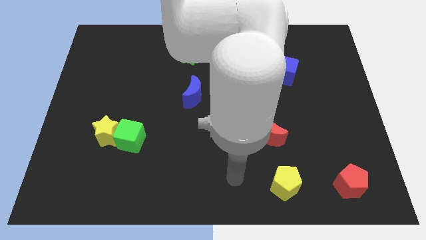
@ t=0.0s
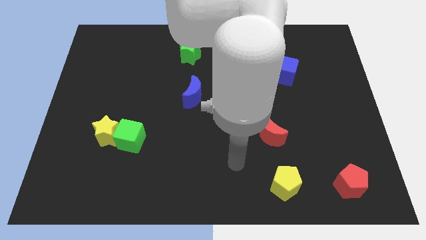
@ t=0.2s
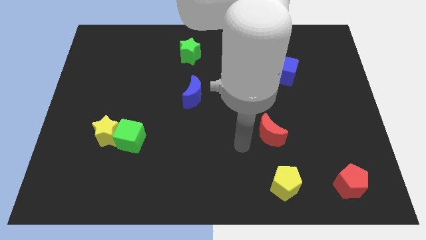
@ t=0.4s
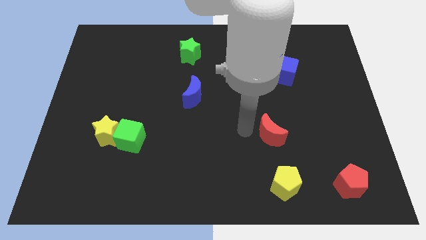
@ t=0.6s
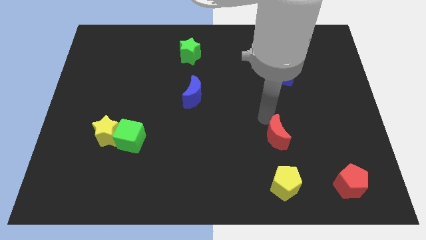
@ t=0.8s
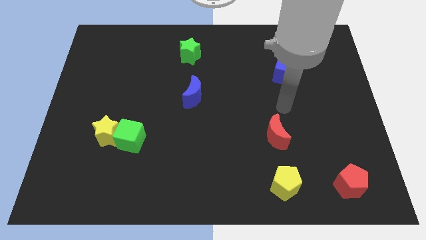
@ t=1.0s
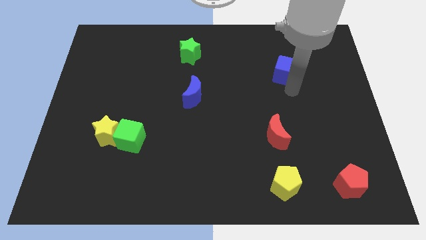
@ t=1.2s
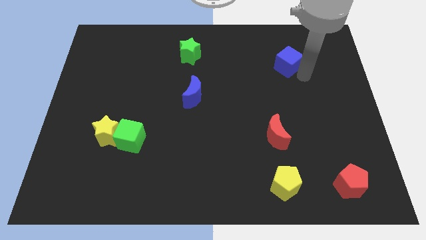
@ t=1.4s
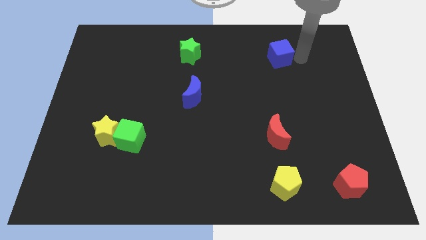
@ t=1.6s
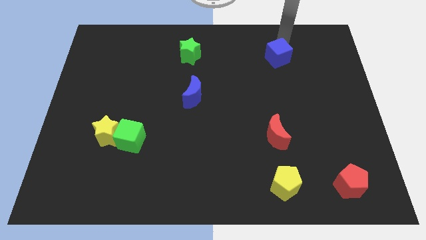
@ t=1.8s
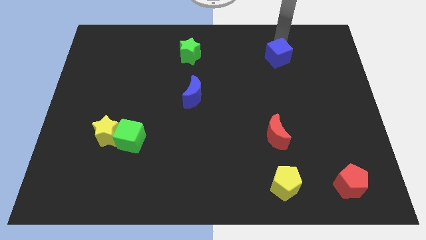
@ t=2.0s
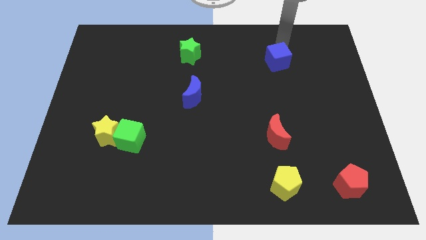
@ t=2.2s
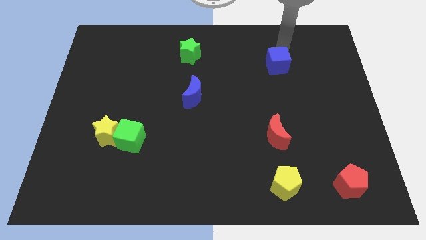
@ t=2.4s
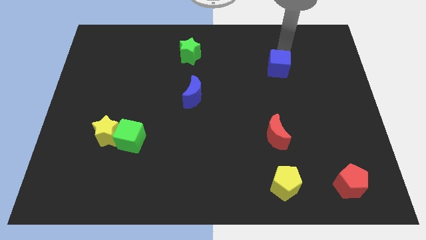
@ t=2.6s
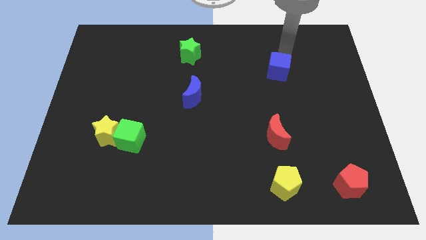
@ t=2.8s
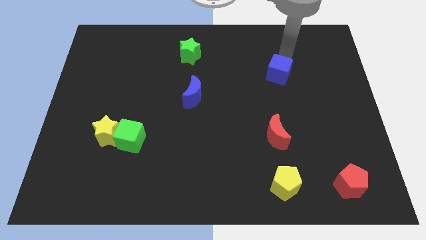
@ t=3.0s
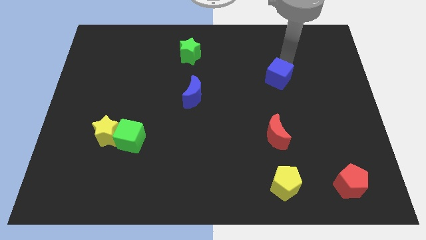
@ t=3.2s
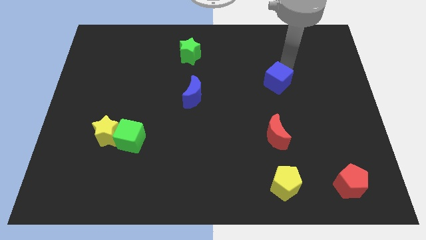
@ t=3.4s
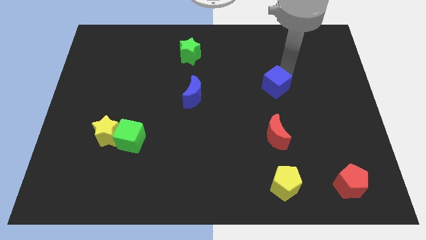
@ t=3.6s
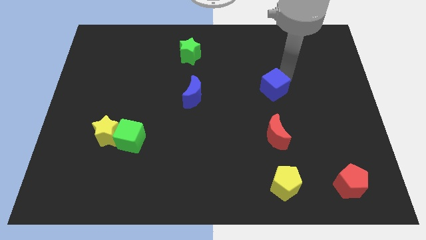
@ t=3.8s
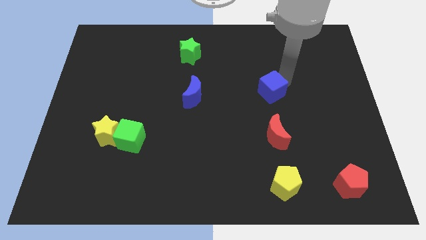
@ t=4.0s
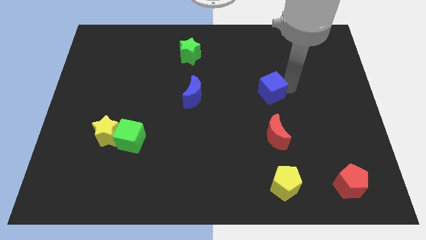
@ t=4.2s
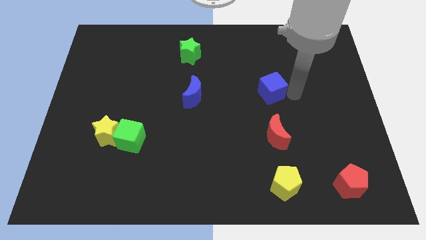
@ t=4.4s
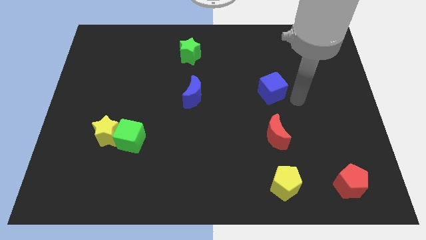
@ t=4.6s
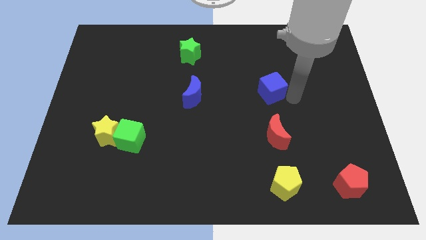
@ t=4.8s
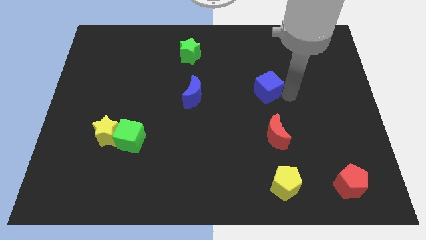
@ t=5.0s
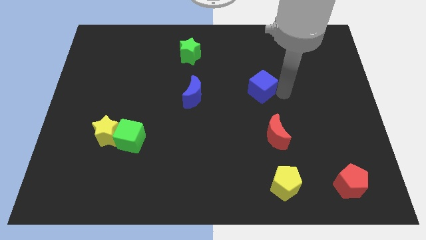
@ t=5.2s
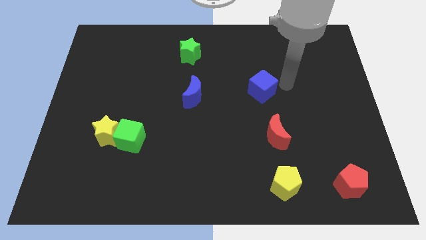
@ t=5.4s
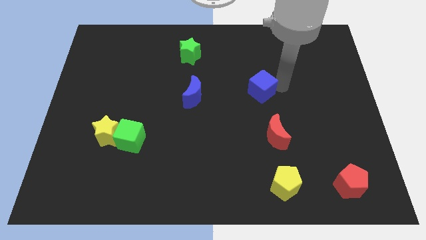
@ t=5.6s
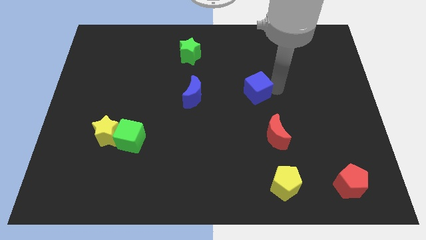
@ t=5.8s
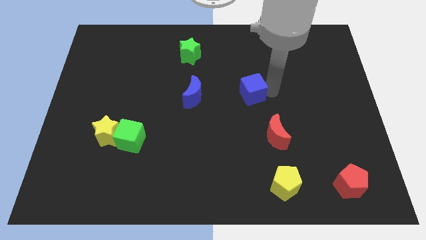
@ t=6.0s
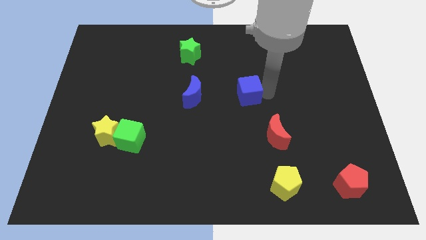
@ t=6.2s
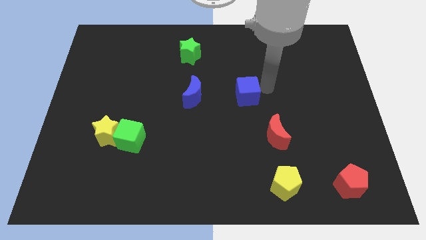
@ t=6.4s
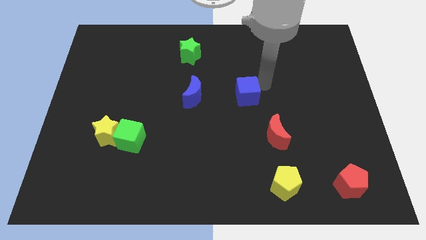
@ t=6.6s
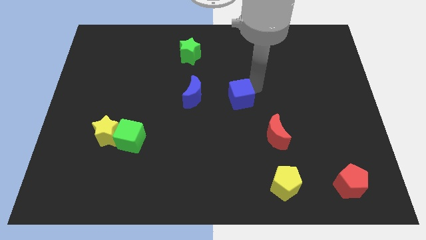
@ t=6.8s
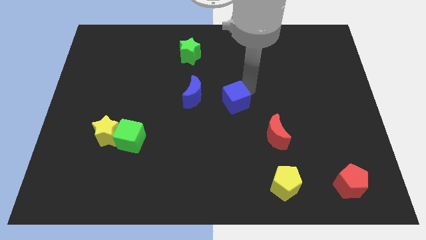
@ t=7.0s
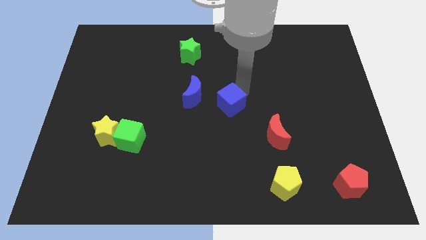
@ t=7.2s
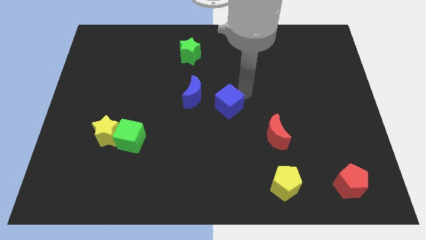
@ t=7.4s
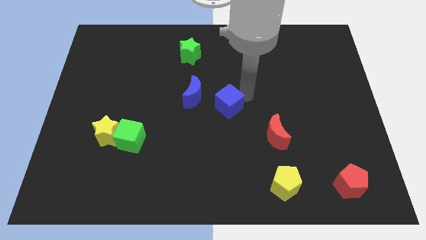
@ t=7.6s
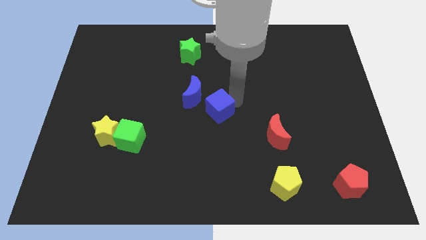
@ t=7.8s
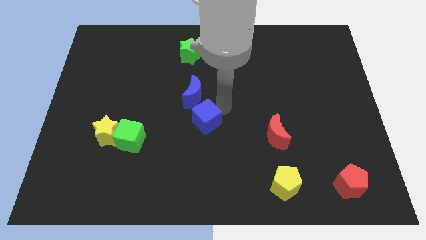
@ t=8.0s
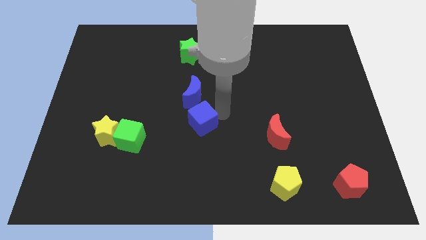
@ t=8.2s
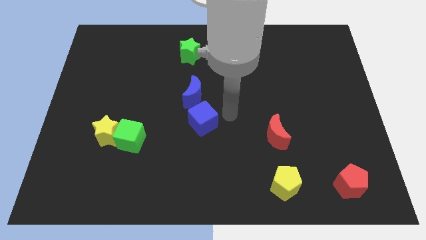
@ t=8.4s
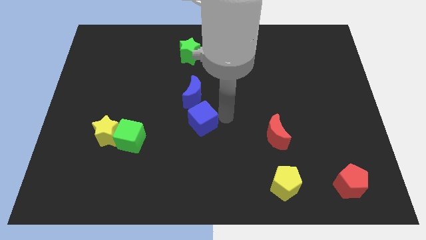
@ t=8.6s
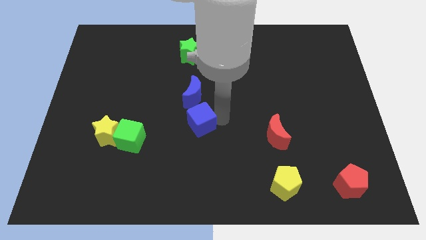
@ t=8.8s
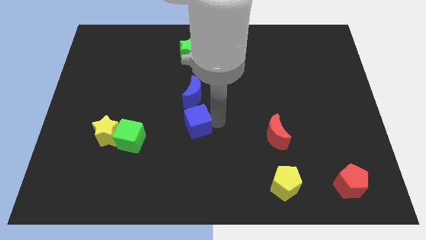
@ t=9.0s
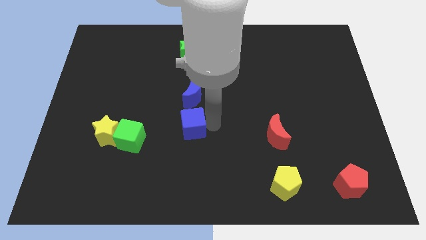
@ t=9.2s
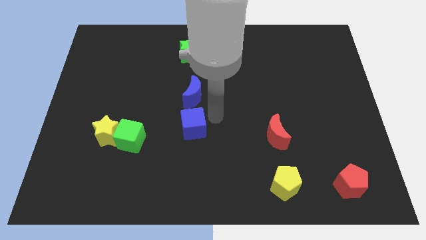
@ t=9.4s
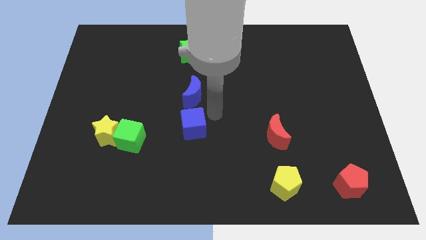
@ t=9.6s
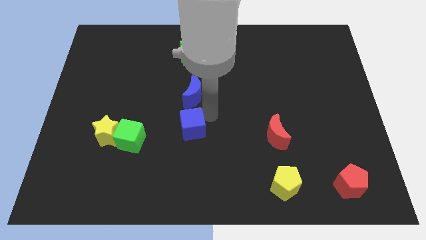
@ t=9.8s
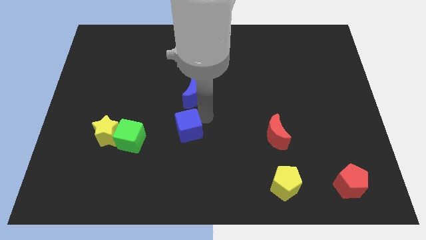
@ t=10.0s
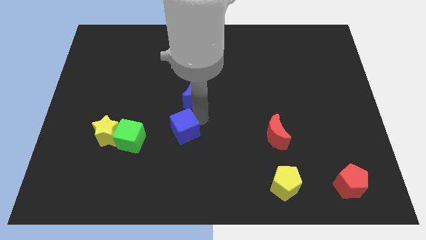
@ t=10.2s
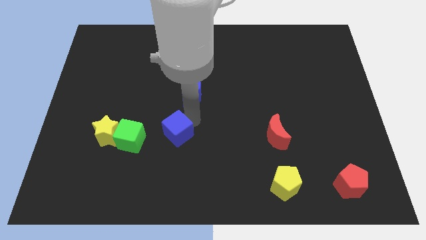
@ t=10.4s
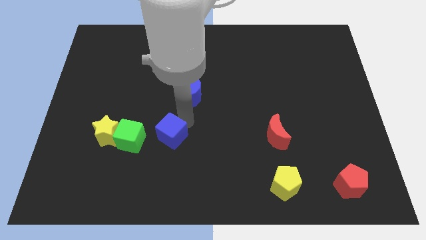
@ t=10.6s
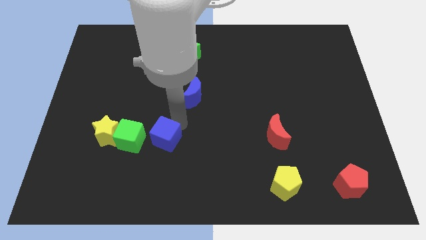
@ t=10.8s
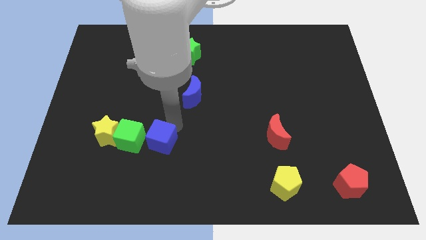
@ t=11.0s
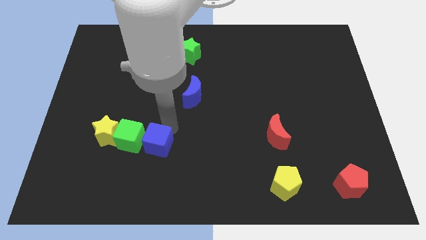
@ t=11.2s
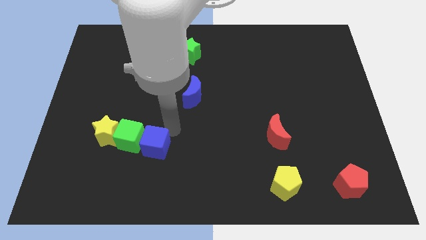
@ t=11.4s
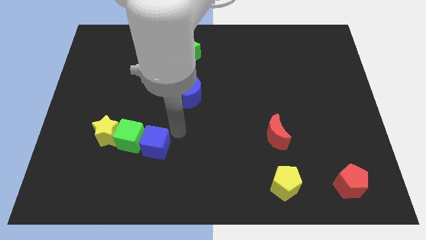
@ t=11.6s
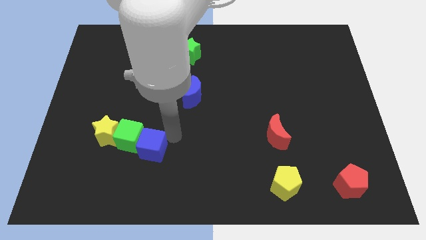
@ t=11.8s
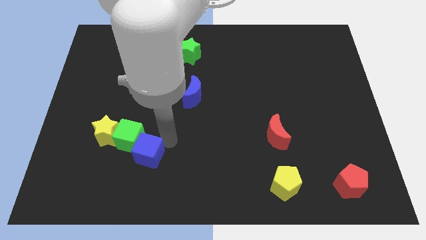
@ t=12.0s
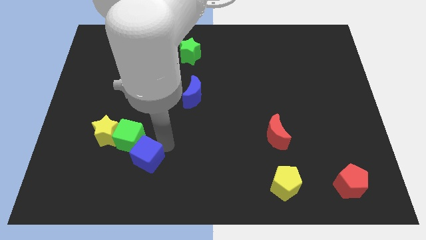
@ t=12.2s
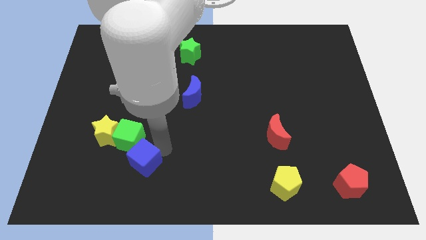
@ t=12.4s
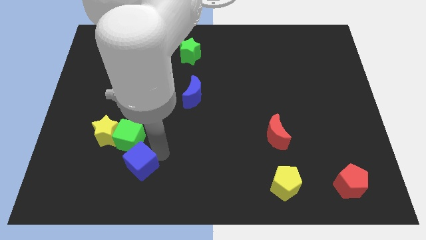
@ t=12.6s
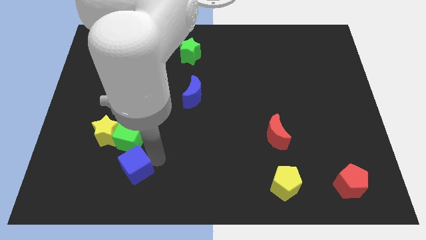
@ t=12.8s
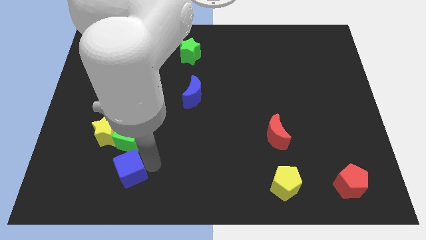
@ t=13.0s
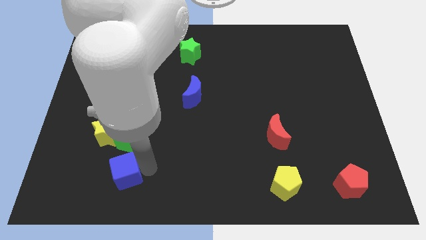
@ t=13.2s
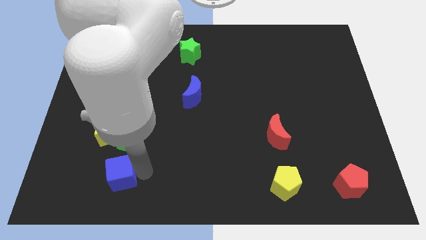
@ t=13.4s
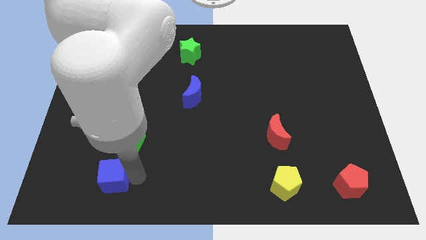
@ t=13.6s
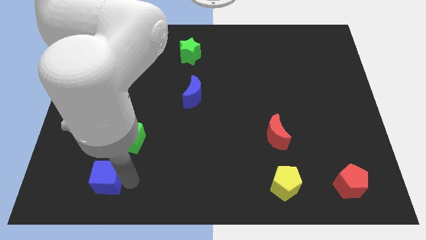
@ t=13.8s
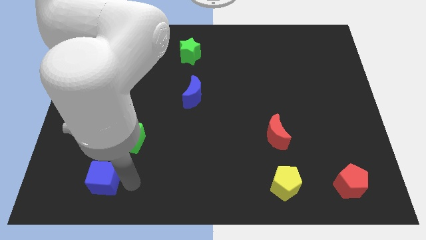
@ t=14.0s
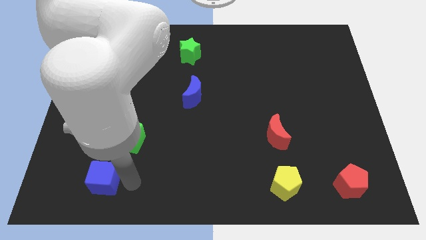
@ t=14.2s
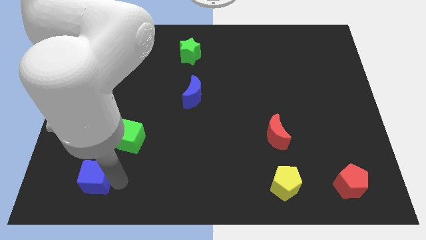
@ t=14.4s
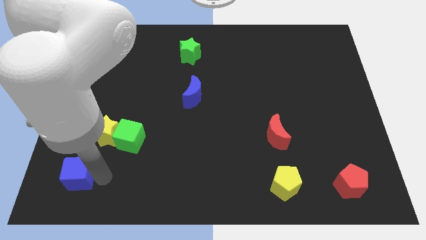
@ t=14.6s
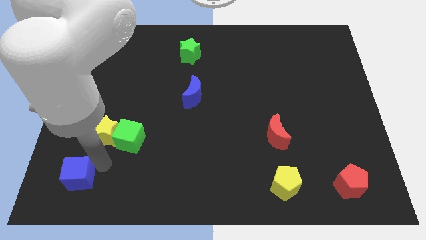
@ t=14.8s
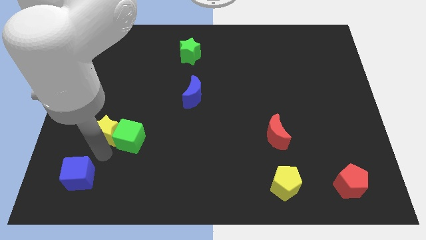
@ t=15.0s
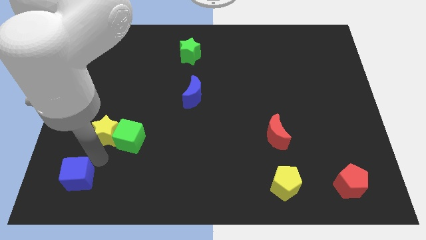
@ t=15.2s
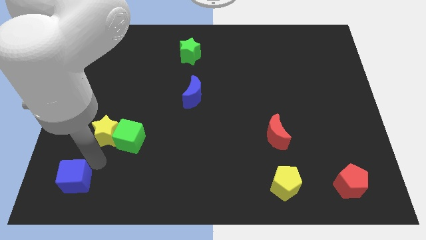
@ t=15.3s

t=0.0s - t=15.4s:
slide the blue cube to the bottom left of the board
